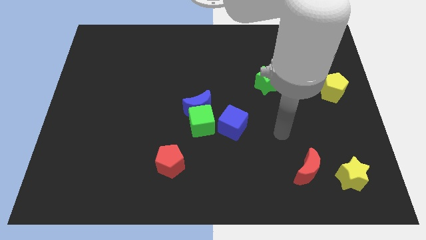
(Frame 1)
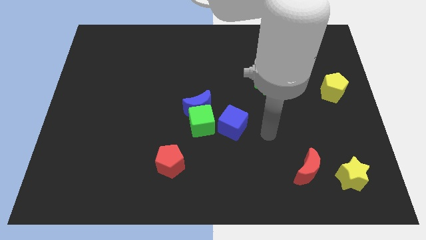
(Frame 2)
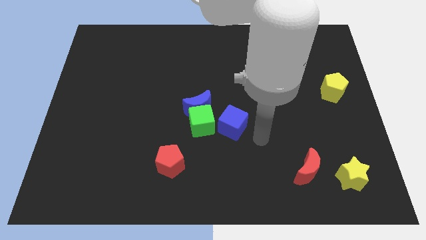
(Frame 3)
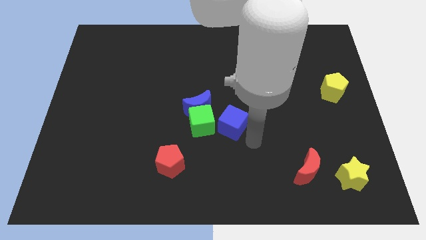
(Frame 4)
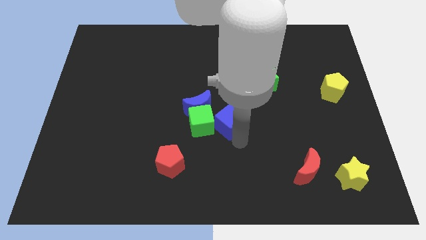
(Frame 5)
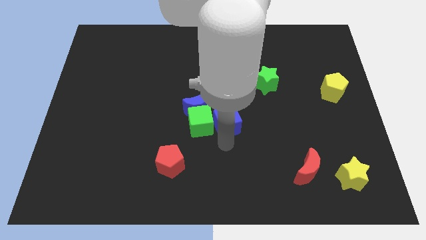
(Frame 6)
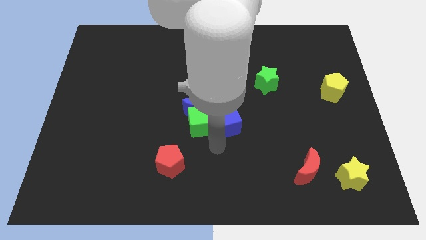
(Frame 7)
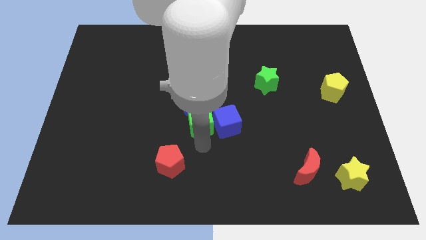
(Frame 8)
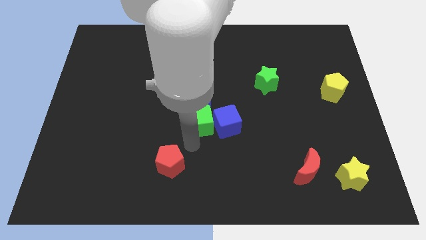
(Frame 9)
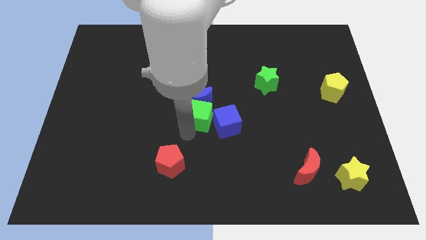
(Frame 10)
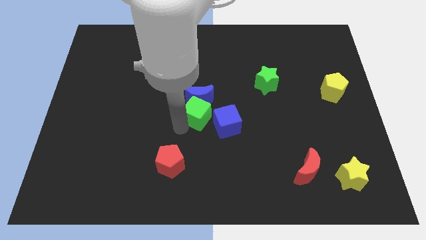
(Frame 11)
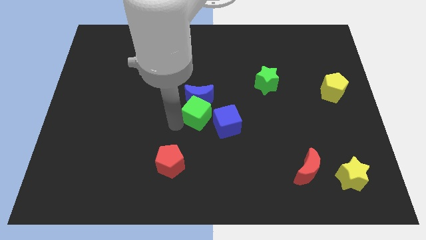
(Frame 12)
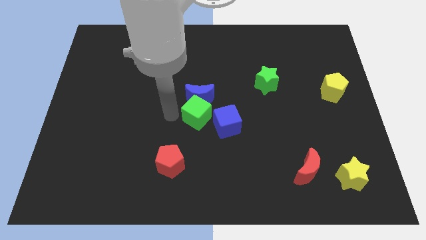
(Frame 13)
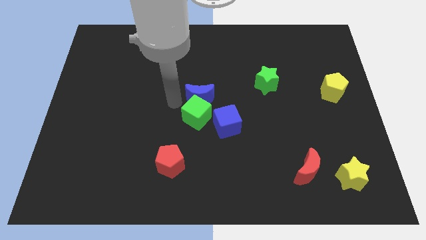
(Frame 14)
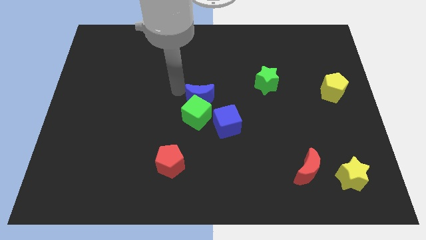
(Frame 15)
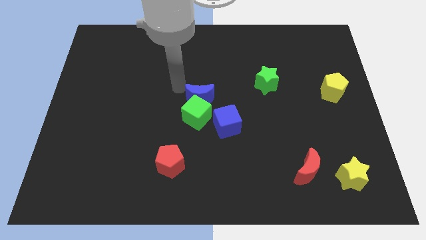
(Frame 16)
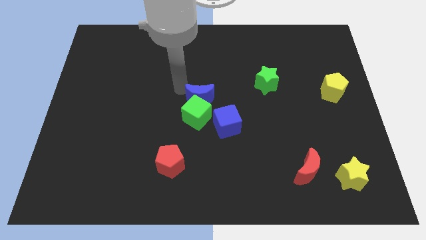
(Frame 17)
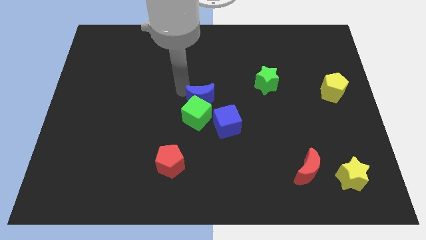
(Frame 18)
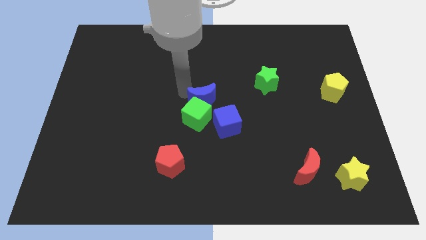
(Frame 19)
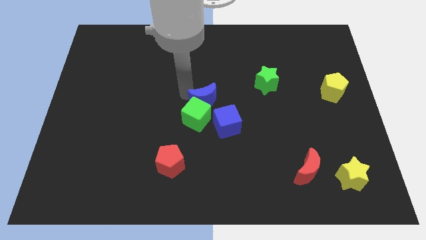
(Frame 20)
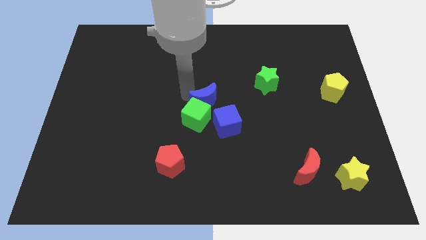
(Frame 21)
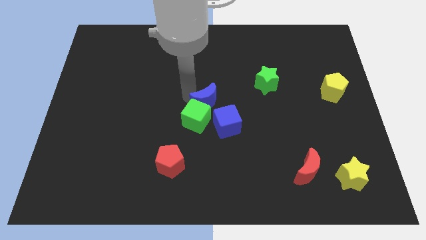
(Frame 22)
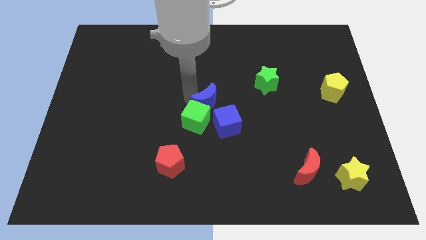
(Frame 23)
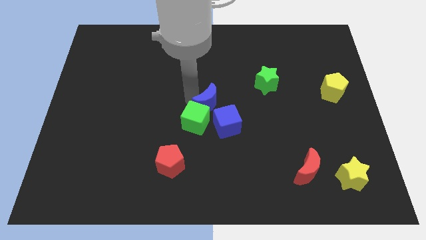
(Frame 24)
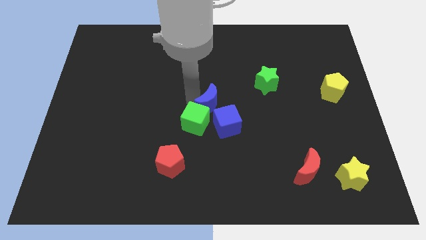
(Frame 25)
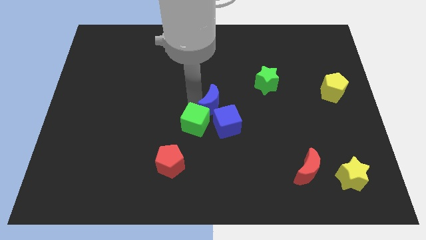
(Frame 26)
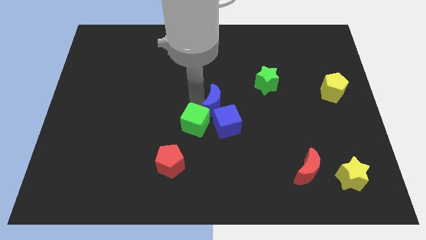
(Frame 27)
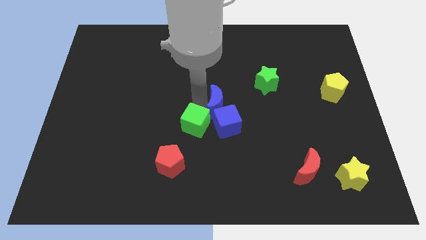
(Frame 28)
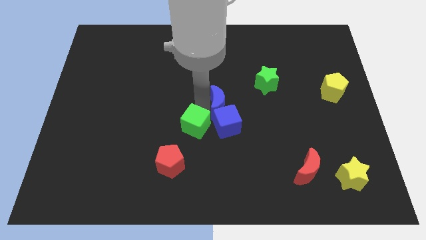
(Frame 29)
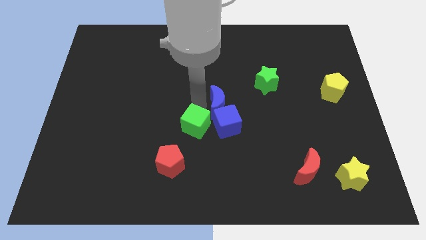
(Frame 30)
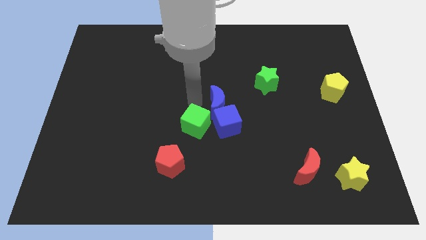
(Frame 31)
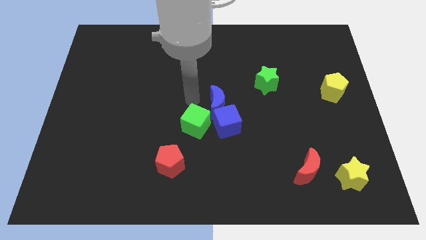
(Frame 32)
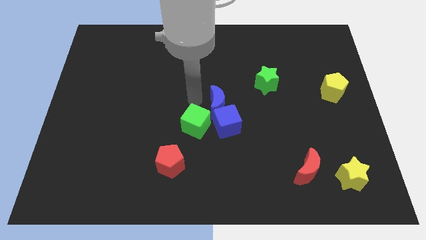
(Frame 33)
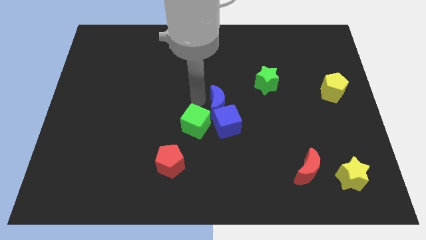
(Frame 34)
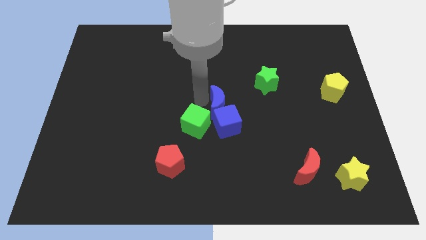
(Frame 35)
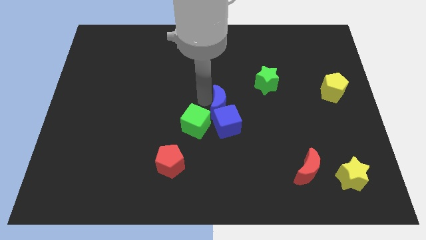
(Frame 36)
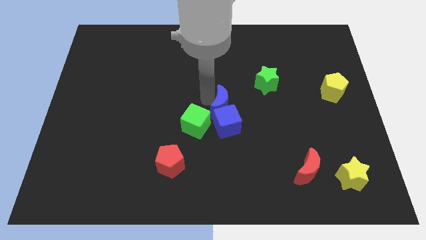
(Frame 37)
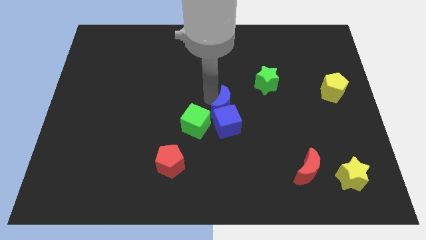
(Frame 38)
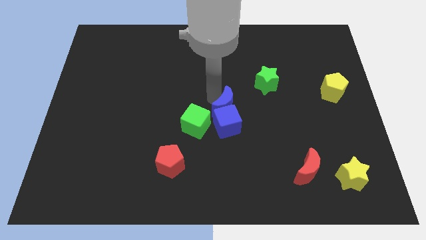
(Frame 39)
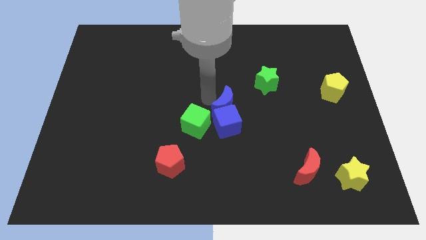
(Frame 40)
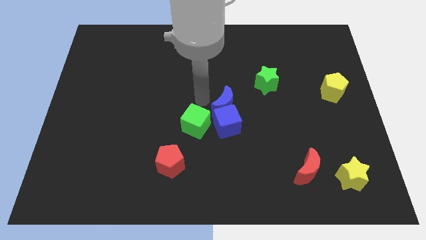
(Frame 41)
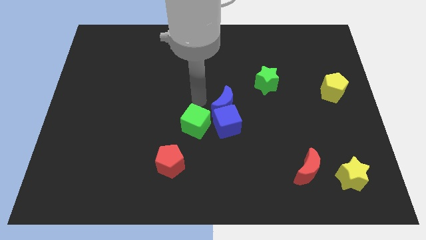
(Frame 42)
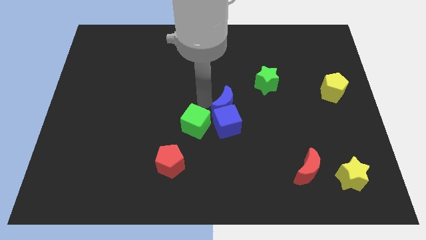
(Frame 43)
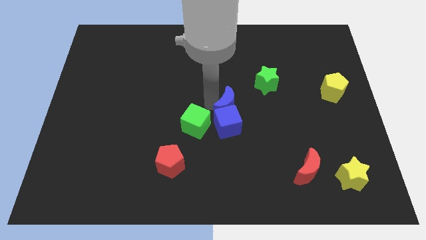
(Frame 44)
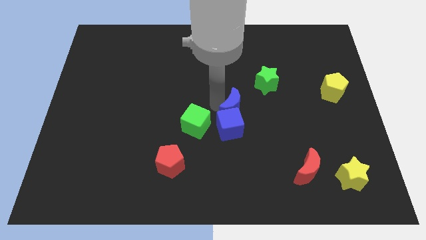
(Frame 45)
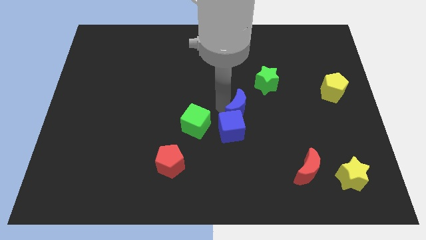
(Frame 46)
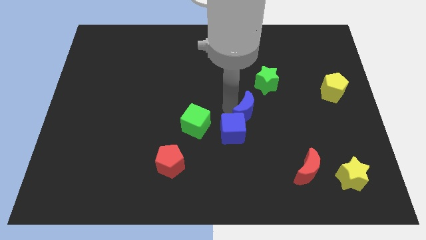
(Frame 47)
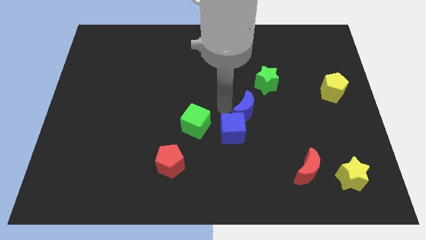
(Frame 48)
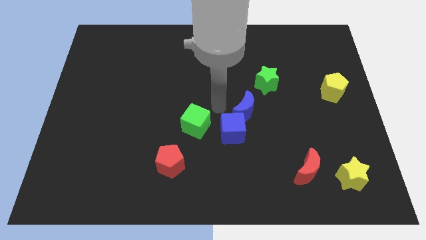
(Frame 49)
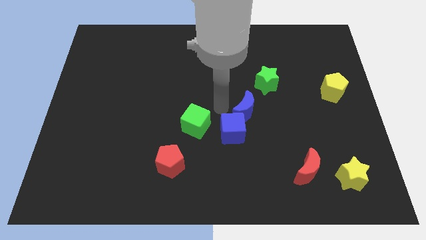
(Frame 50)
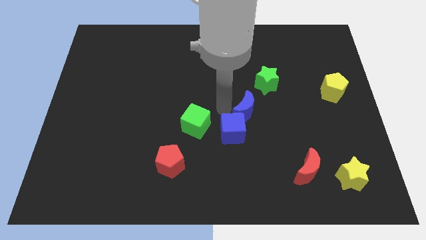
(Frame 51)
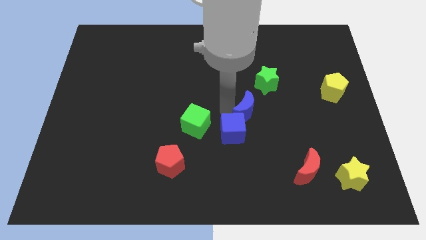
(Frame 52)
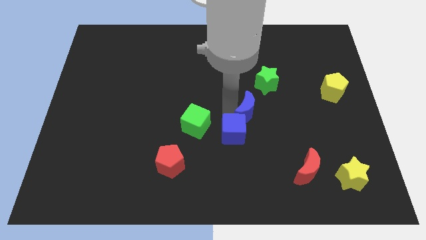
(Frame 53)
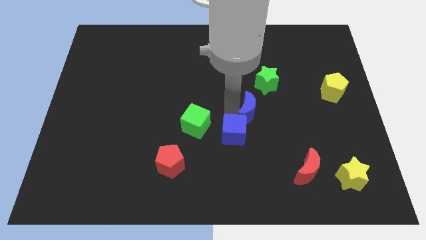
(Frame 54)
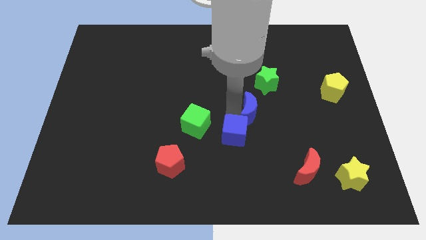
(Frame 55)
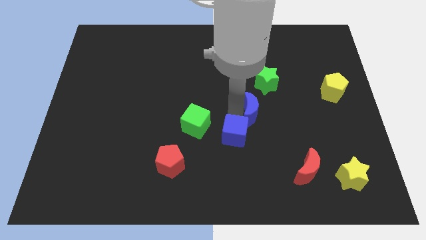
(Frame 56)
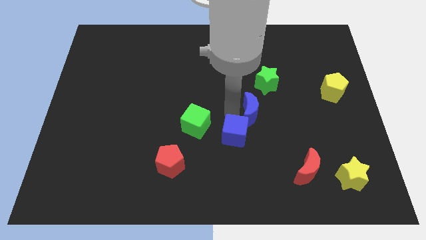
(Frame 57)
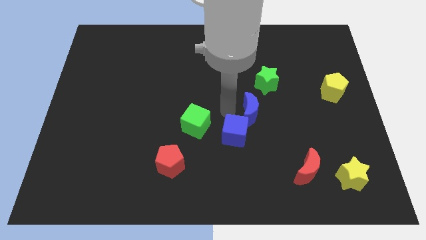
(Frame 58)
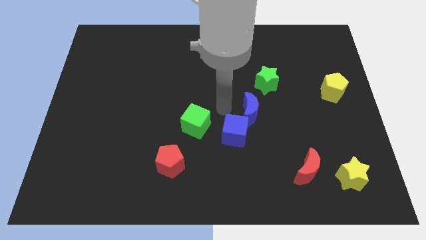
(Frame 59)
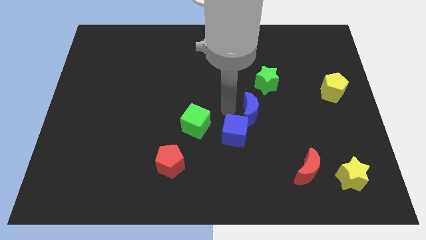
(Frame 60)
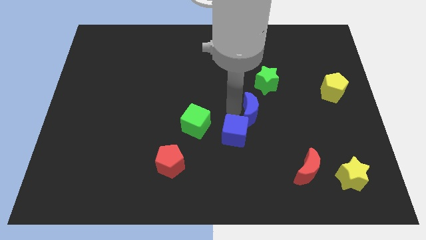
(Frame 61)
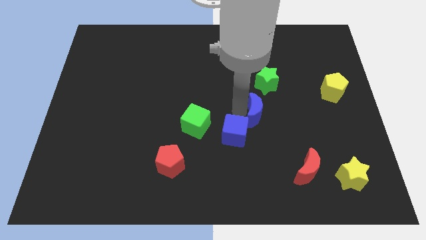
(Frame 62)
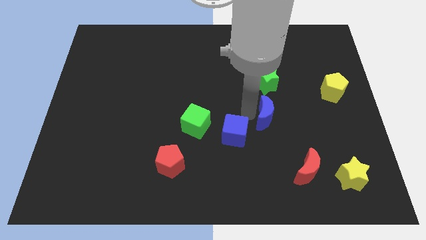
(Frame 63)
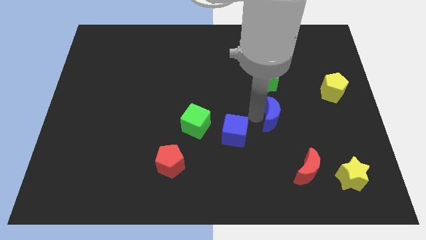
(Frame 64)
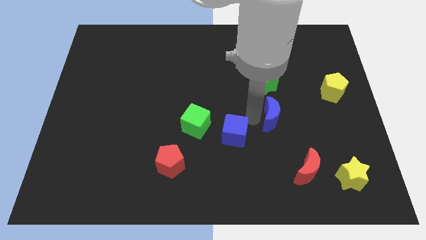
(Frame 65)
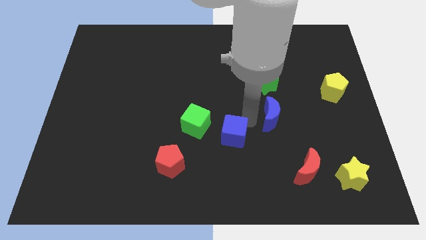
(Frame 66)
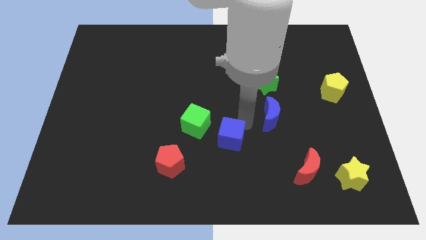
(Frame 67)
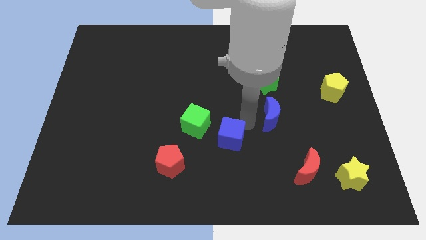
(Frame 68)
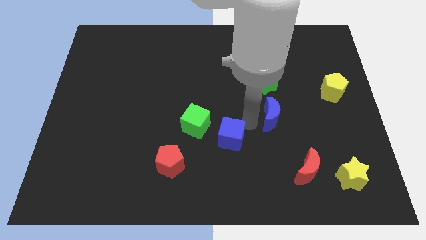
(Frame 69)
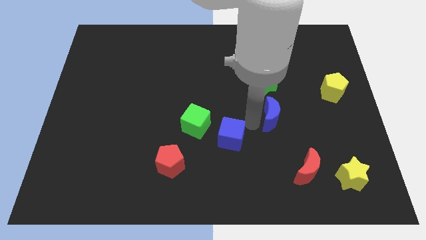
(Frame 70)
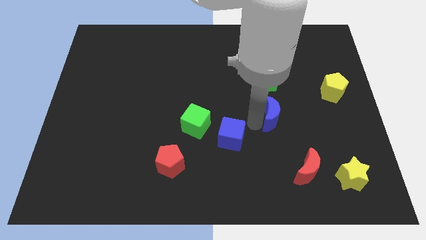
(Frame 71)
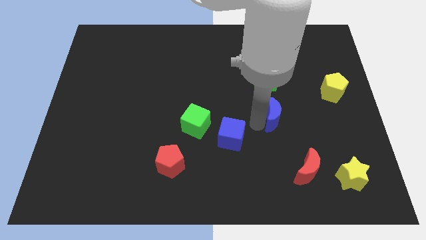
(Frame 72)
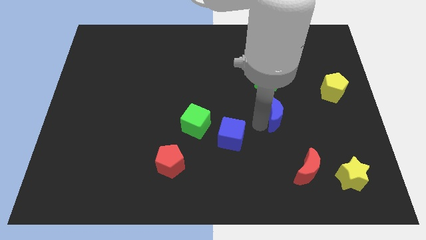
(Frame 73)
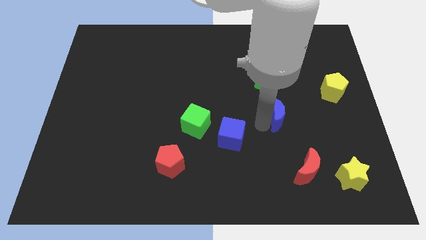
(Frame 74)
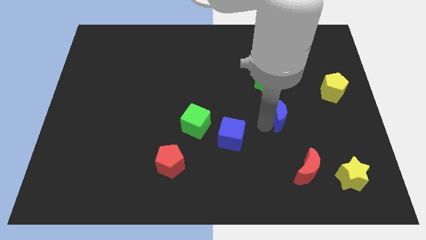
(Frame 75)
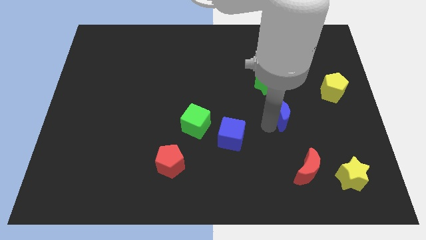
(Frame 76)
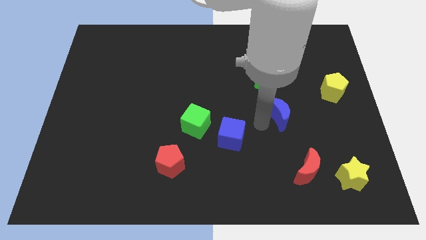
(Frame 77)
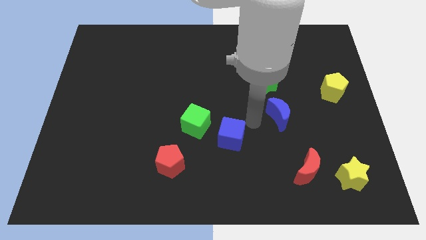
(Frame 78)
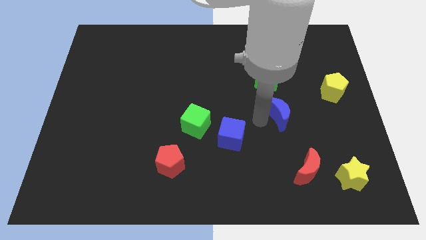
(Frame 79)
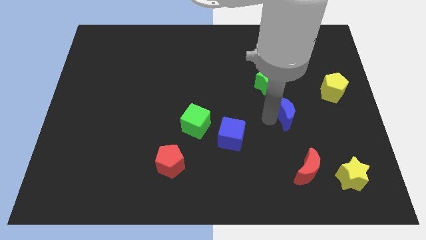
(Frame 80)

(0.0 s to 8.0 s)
move the blue moon right
